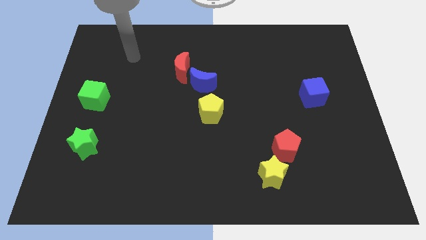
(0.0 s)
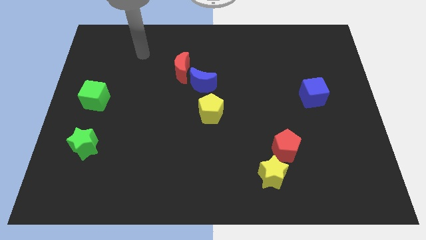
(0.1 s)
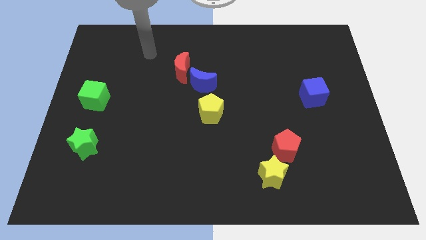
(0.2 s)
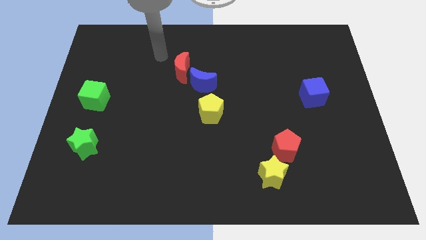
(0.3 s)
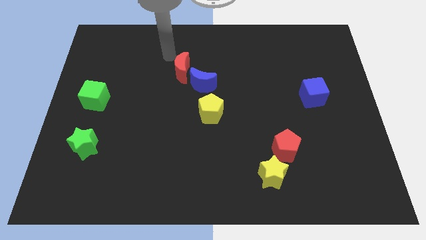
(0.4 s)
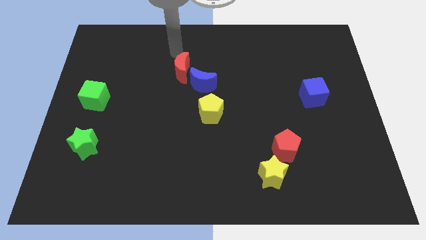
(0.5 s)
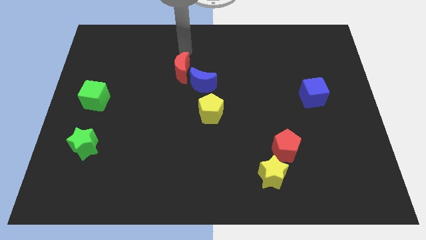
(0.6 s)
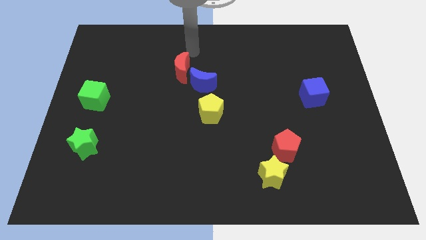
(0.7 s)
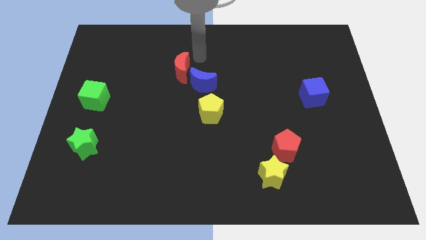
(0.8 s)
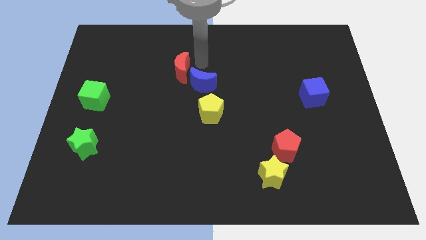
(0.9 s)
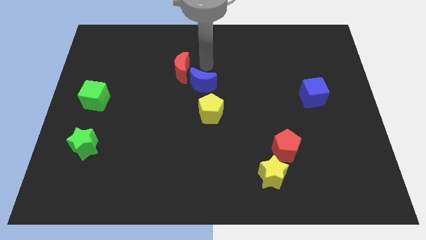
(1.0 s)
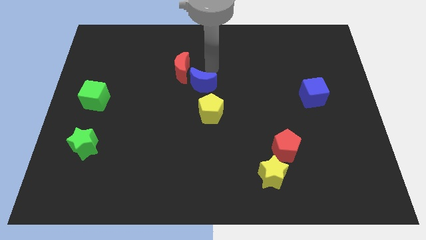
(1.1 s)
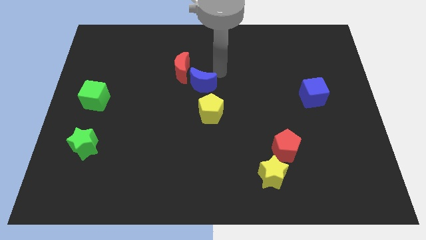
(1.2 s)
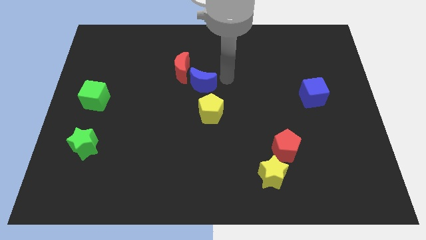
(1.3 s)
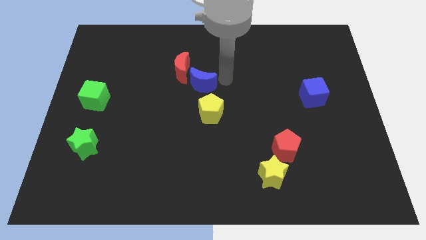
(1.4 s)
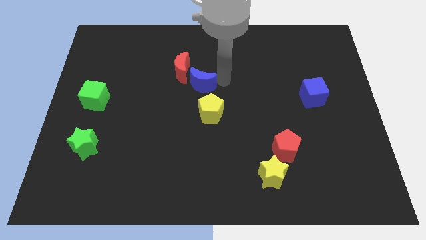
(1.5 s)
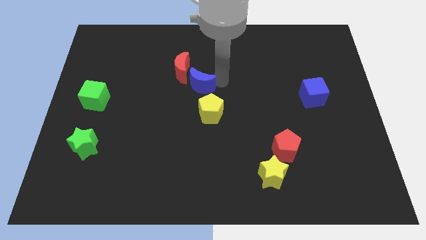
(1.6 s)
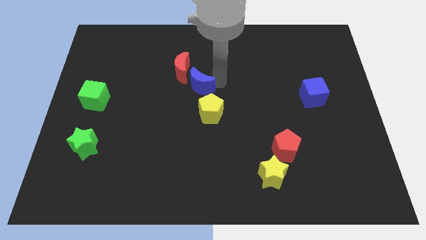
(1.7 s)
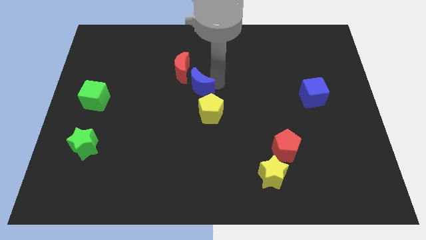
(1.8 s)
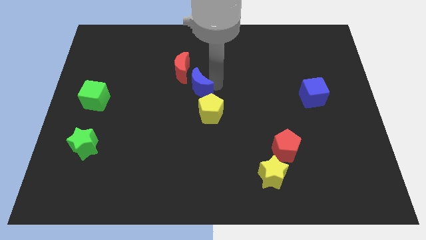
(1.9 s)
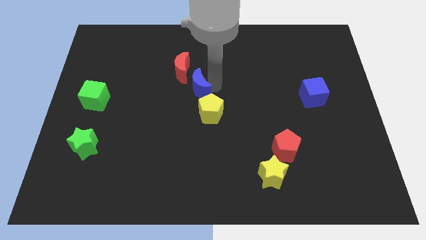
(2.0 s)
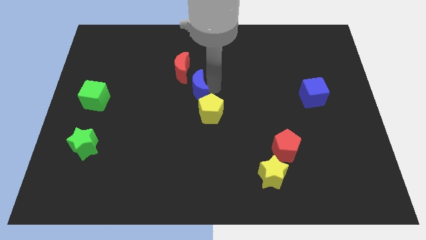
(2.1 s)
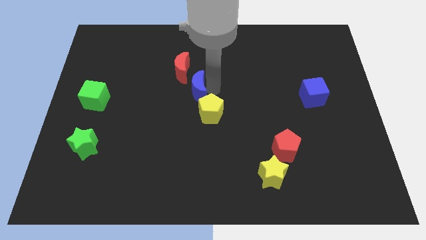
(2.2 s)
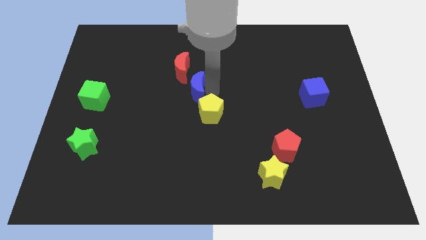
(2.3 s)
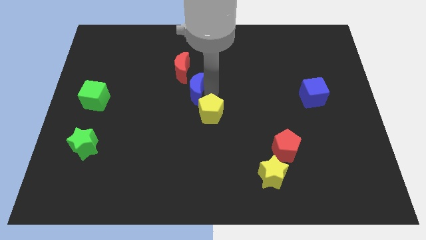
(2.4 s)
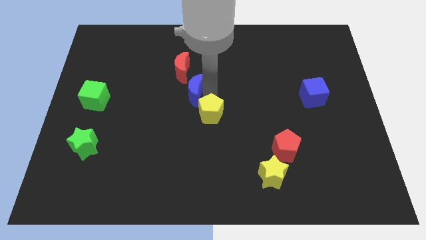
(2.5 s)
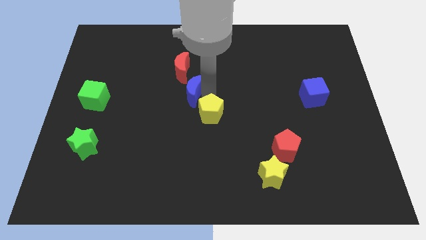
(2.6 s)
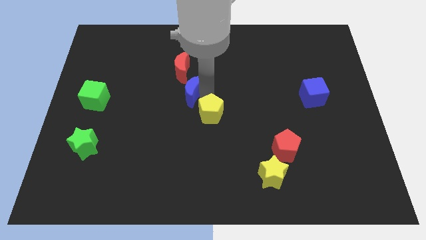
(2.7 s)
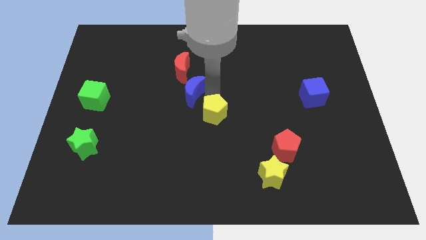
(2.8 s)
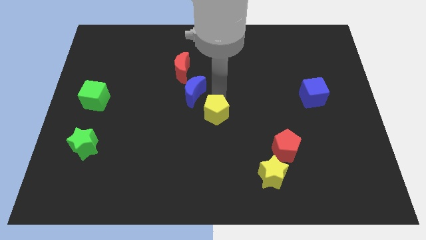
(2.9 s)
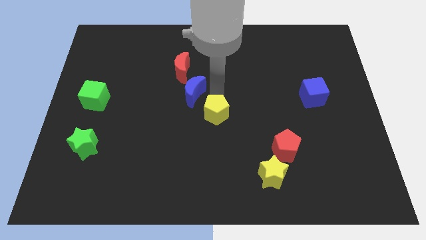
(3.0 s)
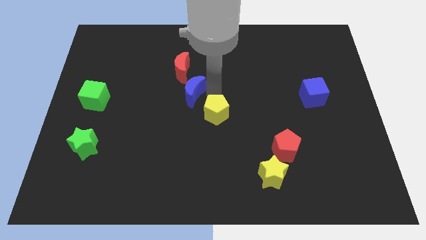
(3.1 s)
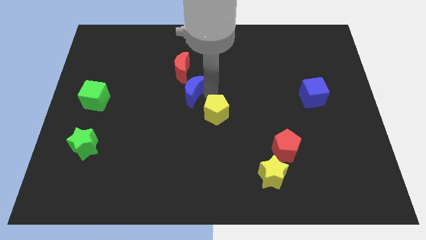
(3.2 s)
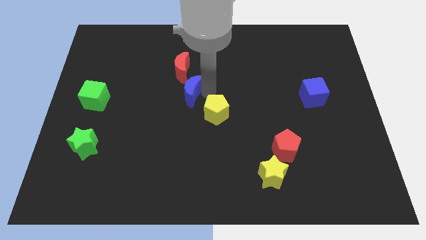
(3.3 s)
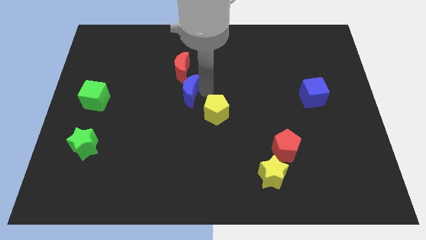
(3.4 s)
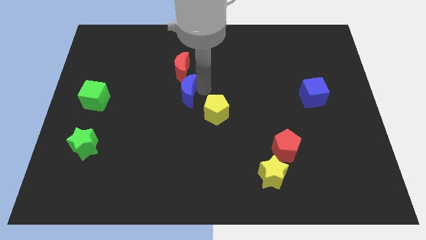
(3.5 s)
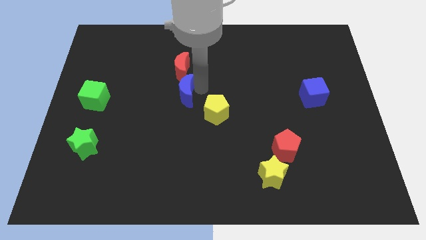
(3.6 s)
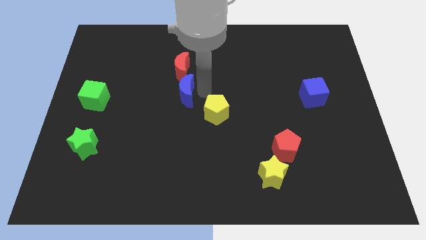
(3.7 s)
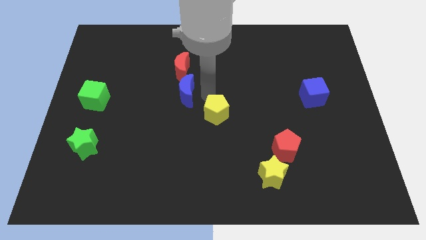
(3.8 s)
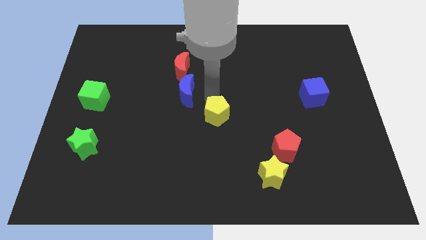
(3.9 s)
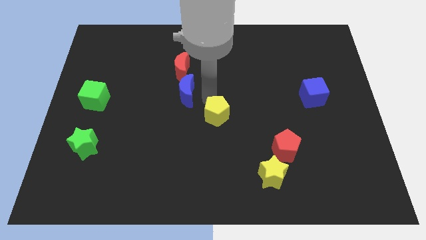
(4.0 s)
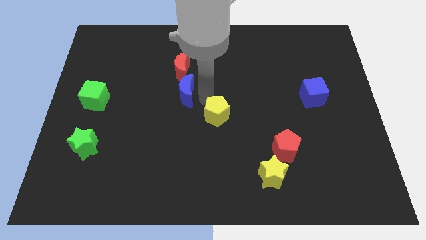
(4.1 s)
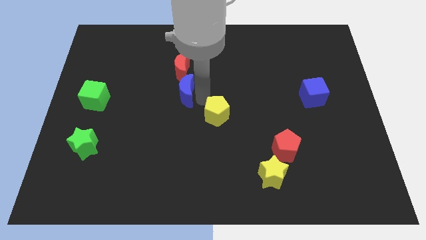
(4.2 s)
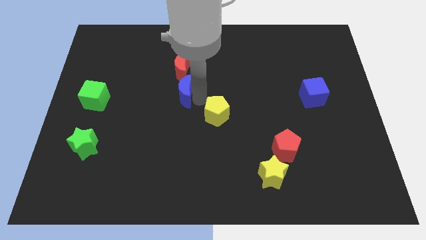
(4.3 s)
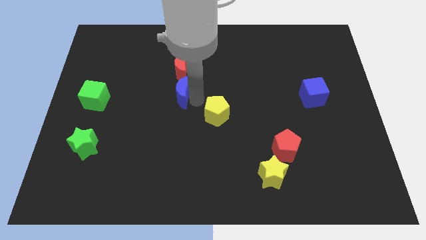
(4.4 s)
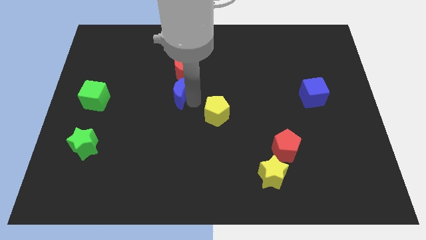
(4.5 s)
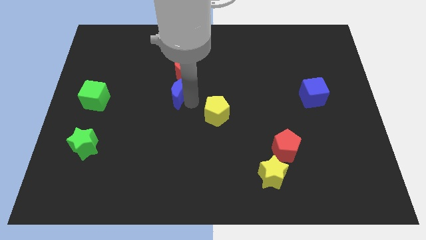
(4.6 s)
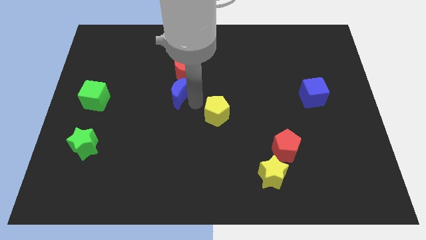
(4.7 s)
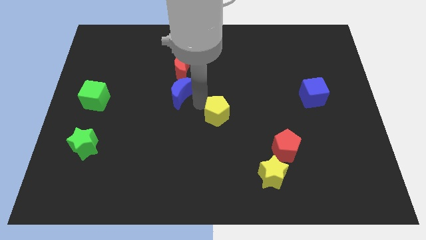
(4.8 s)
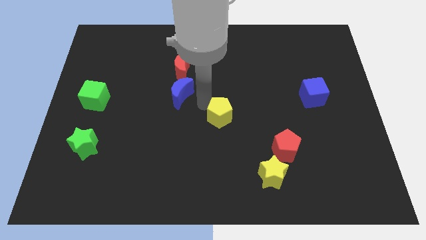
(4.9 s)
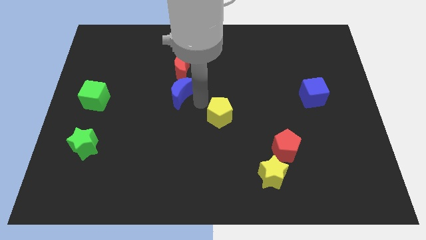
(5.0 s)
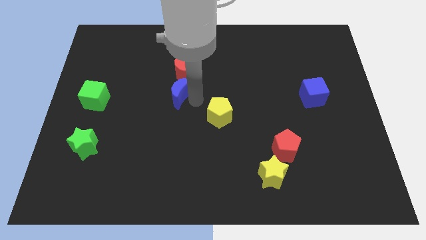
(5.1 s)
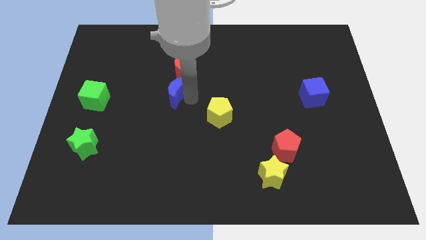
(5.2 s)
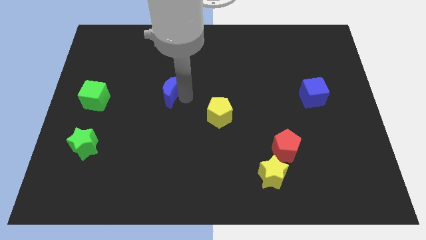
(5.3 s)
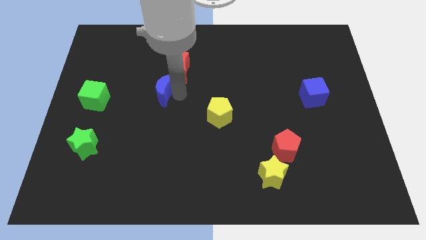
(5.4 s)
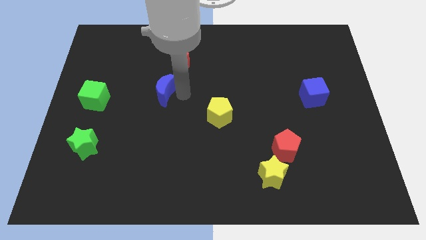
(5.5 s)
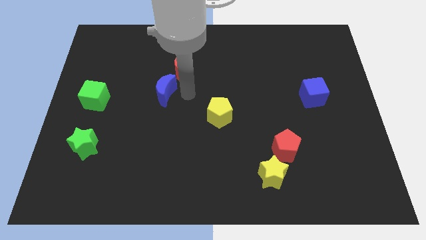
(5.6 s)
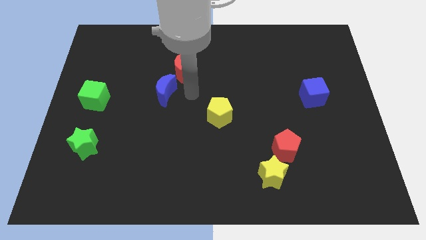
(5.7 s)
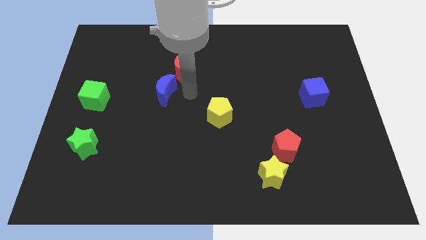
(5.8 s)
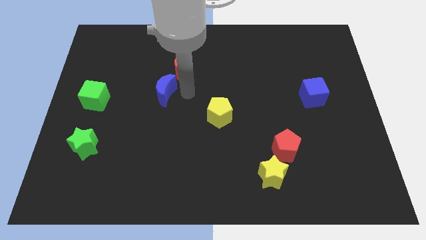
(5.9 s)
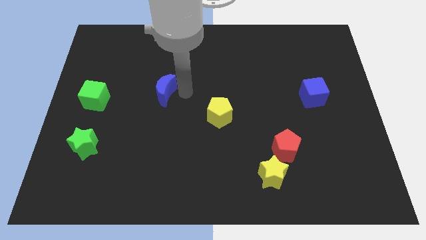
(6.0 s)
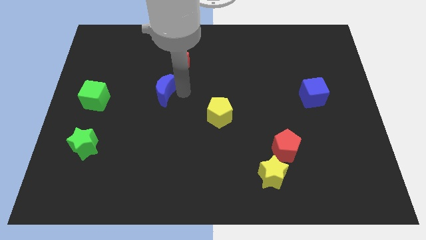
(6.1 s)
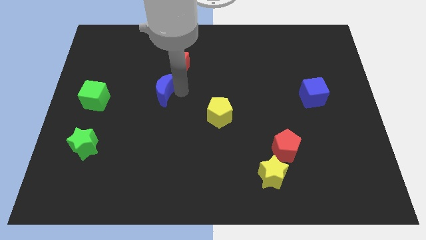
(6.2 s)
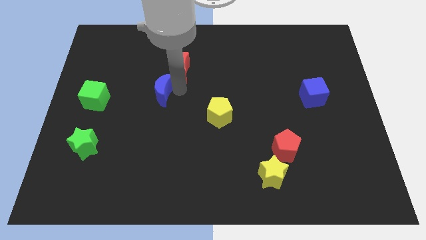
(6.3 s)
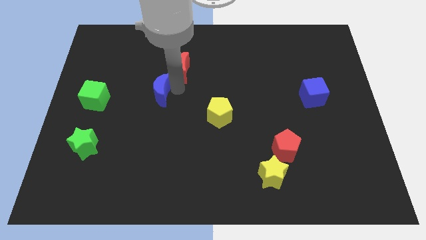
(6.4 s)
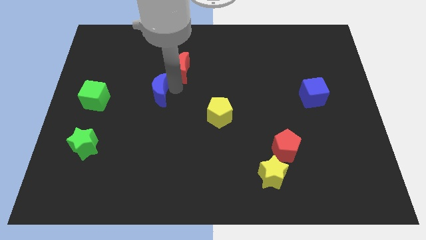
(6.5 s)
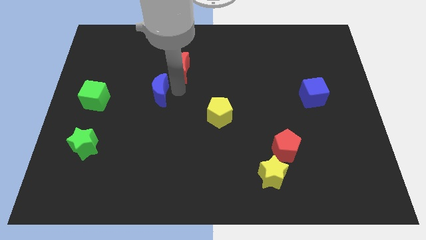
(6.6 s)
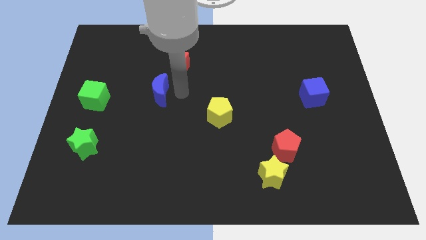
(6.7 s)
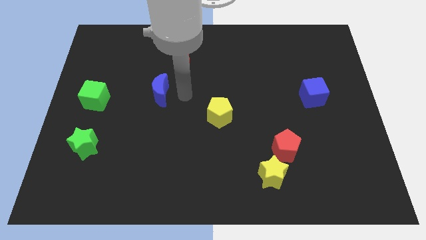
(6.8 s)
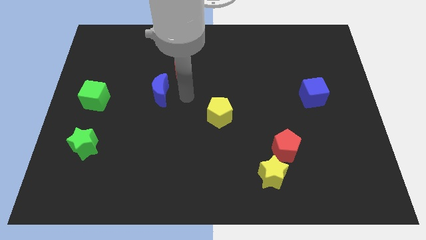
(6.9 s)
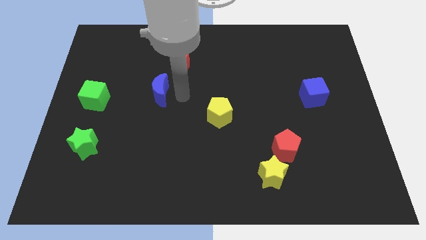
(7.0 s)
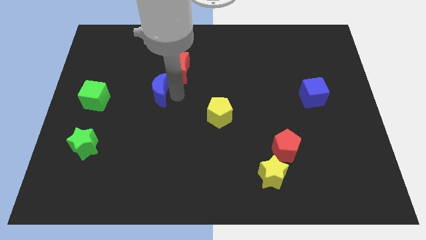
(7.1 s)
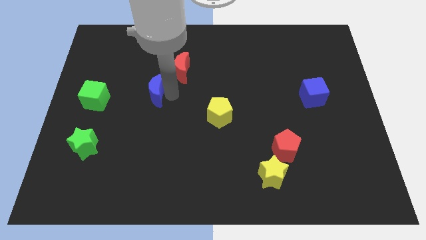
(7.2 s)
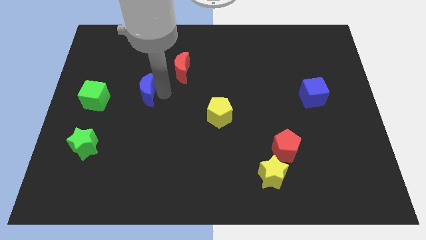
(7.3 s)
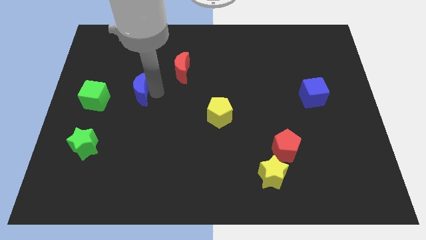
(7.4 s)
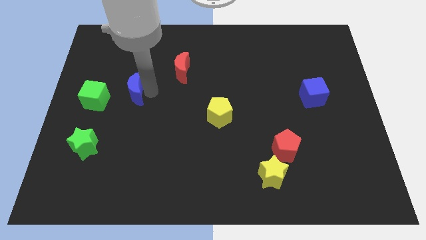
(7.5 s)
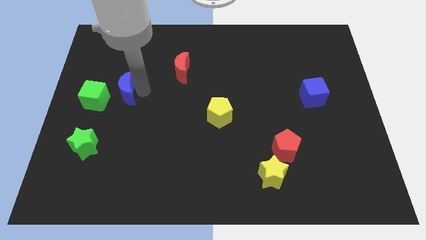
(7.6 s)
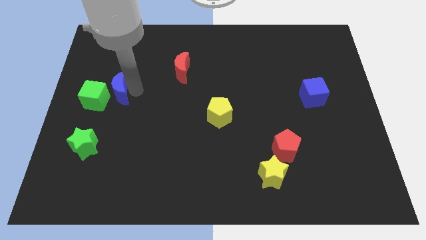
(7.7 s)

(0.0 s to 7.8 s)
slide the blue moon close to the green cube
